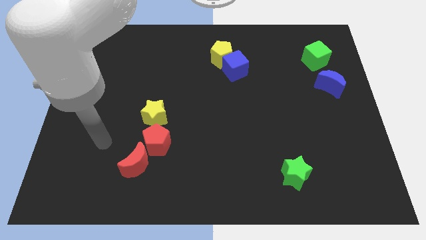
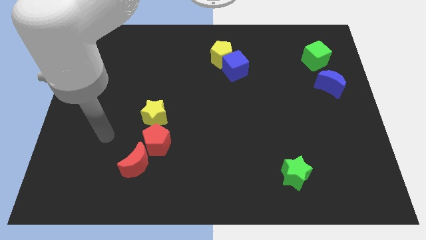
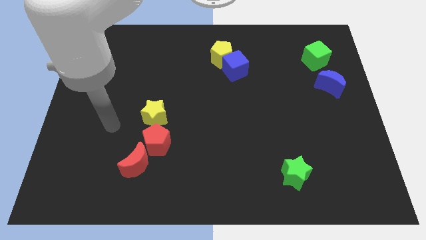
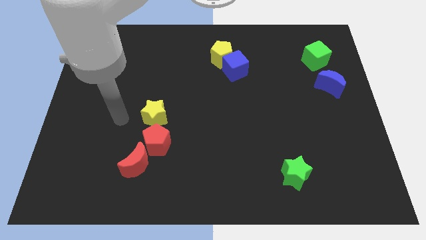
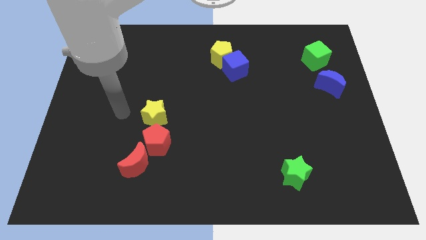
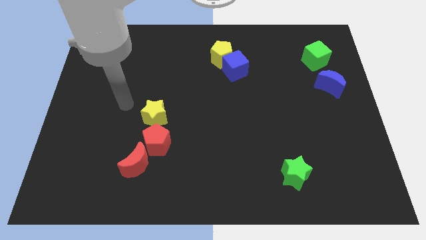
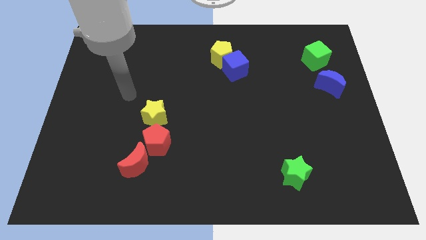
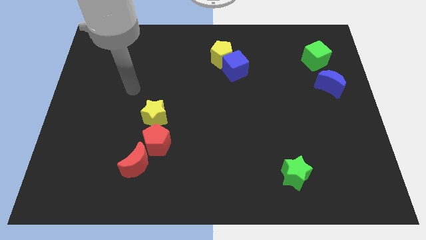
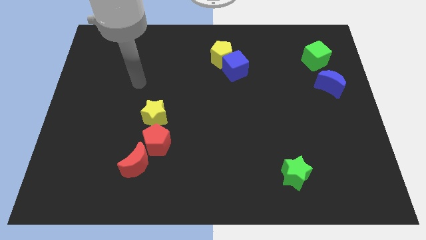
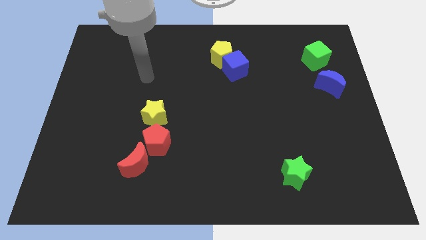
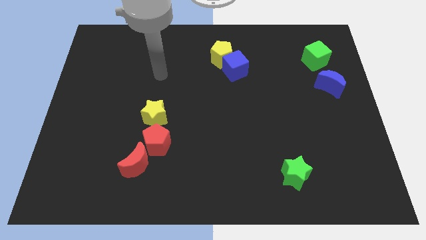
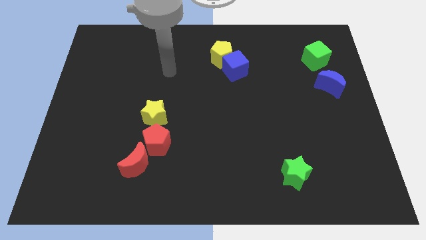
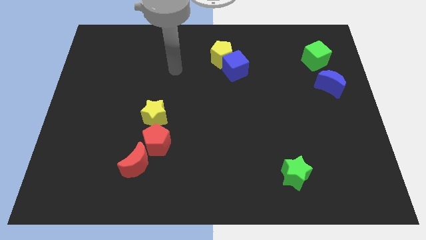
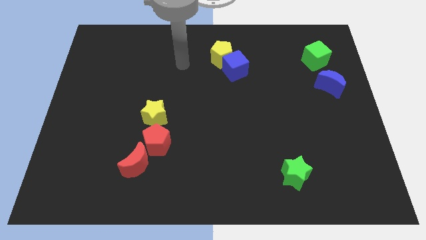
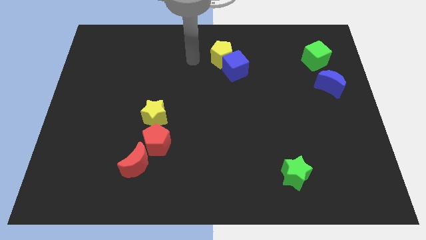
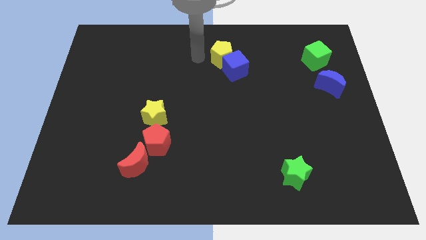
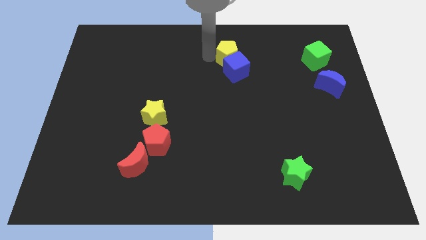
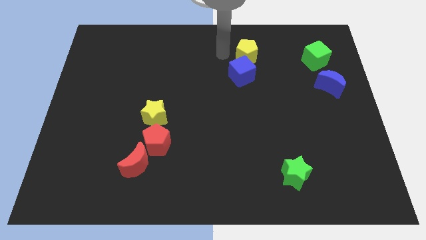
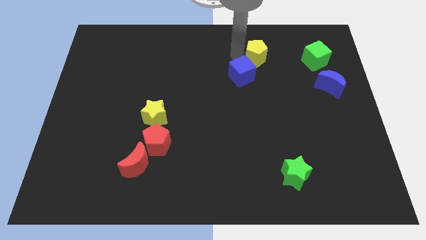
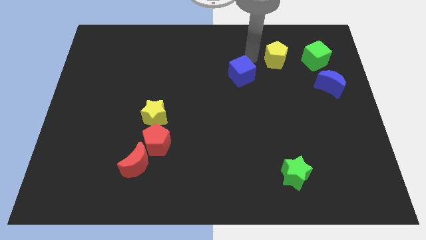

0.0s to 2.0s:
move the blue cube away from the yellow pentagon

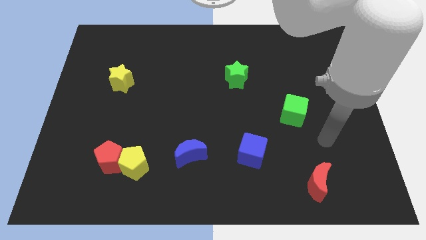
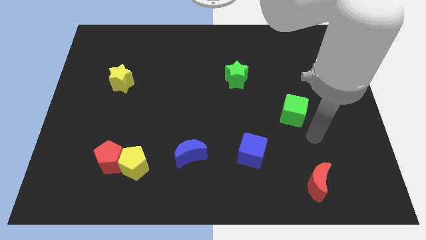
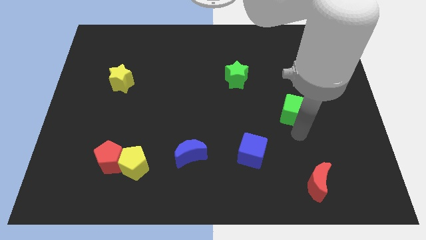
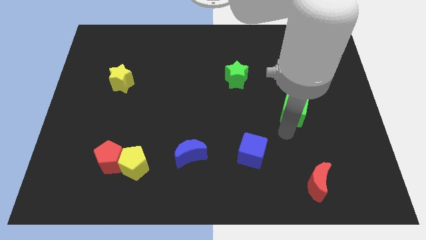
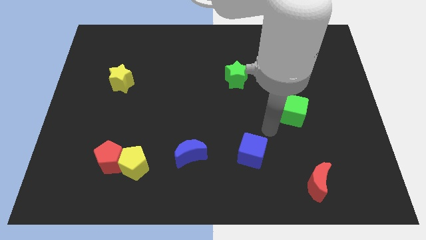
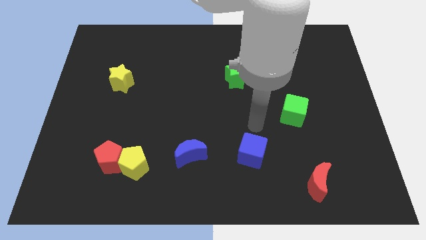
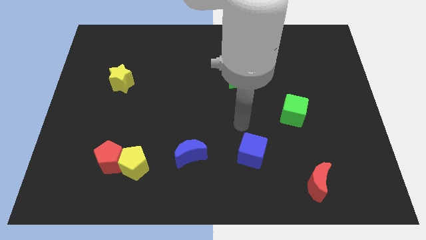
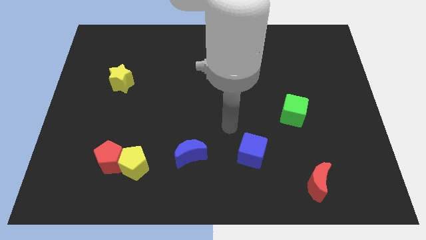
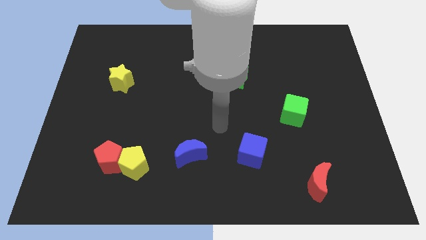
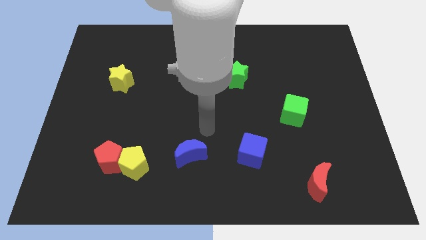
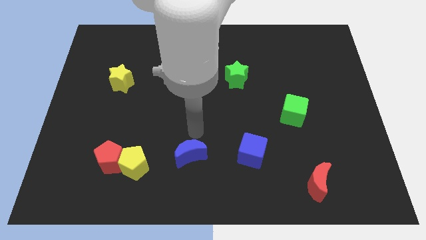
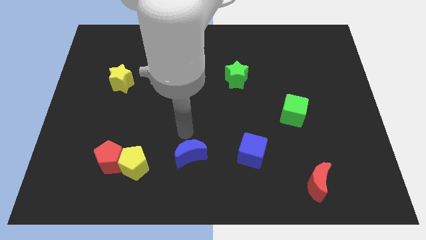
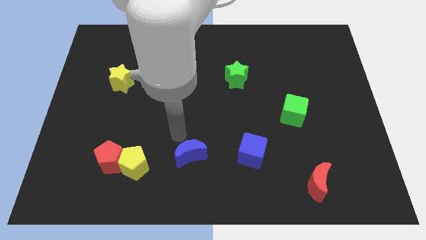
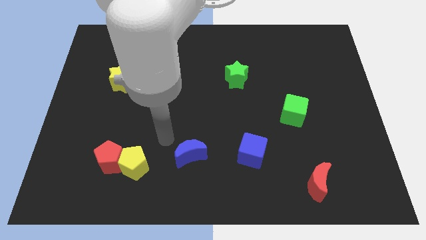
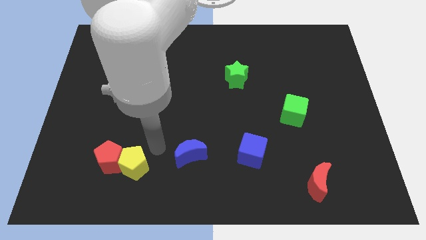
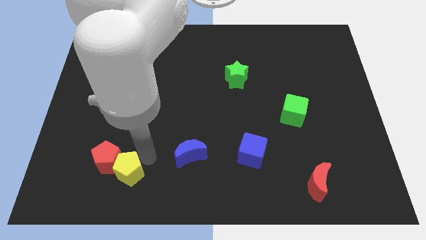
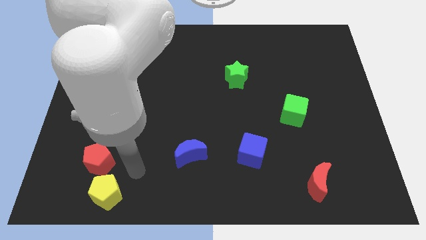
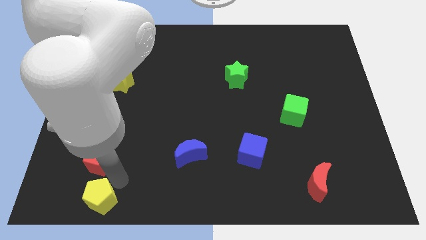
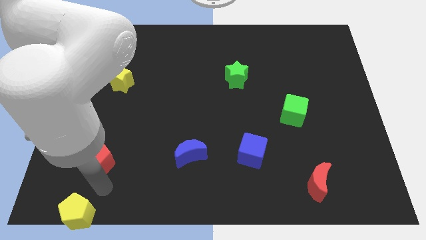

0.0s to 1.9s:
pull the red pentagon apart from the yellow pentagon

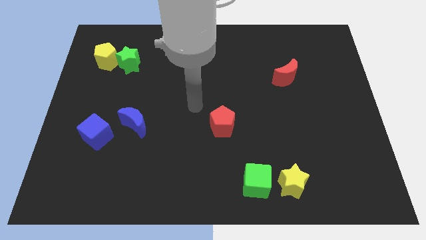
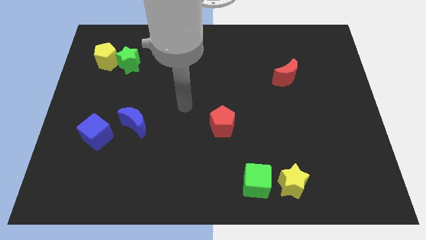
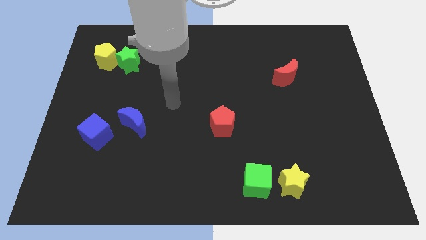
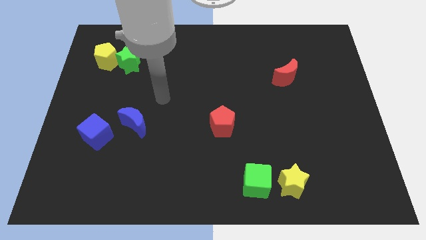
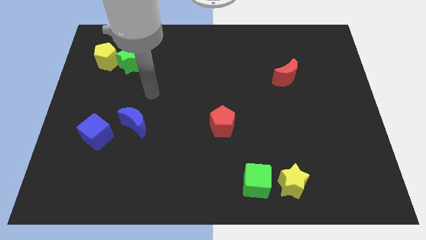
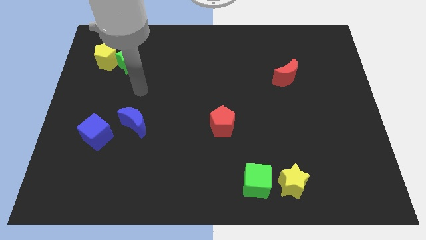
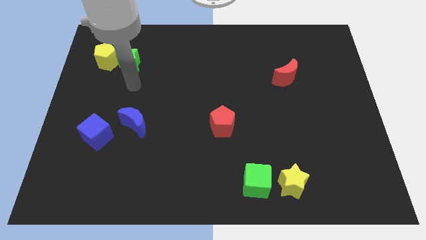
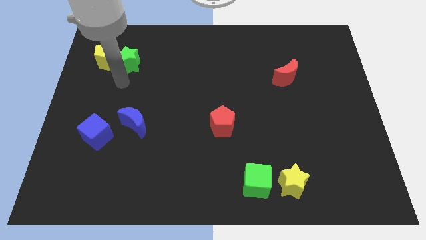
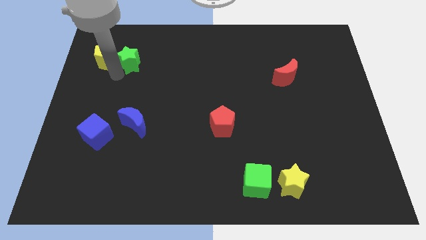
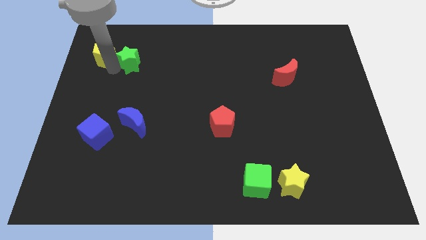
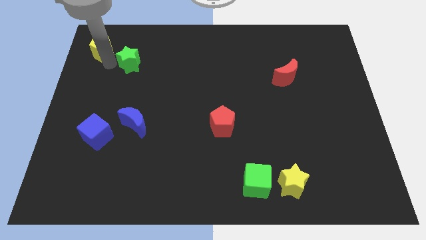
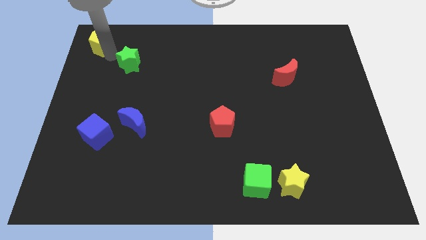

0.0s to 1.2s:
separate the green star from the yellow pentagon

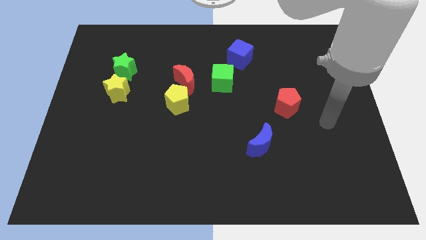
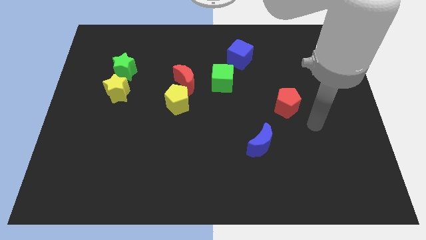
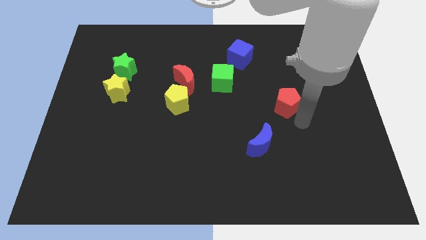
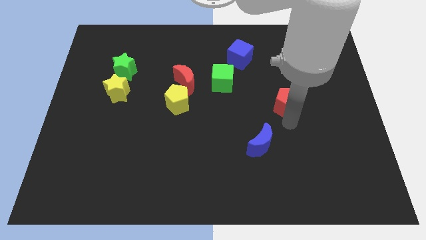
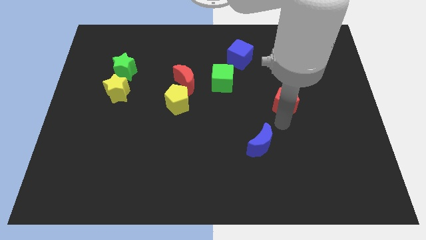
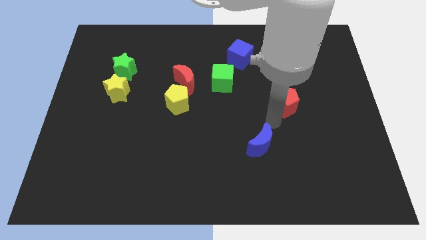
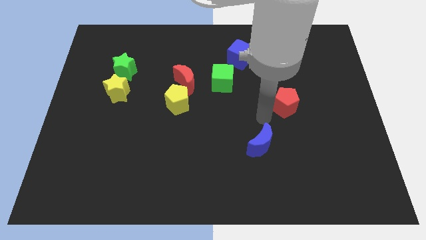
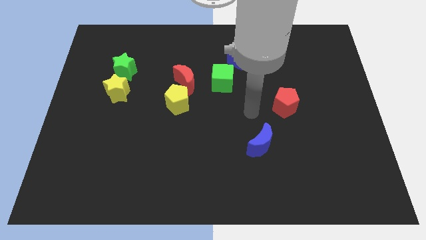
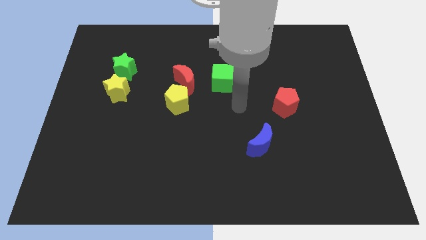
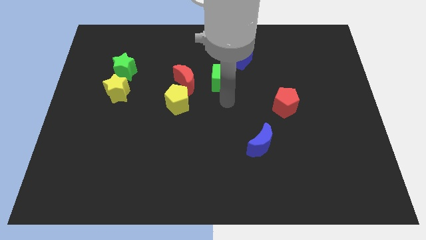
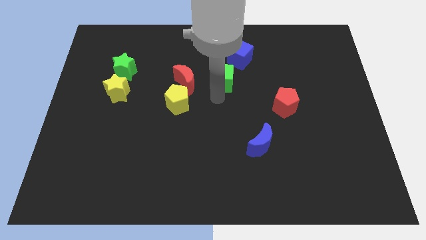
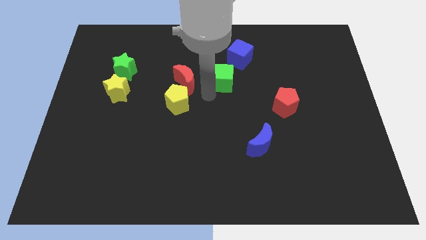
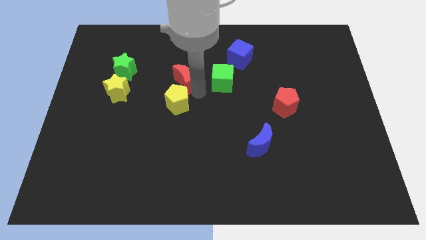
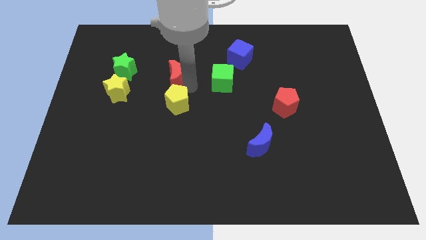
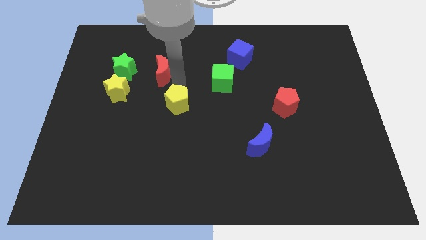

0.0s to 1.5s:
move the yellow pentagon away from the red moon

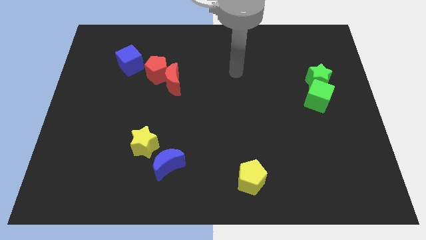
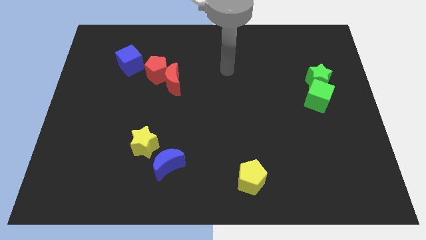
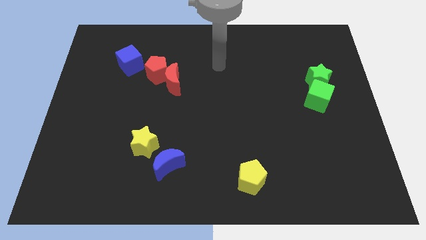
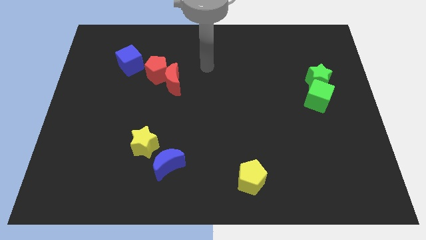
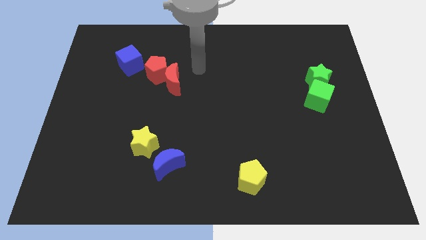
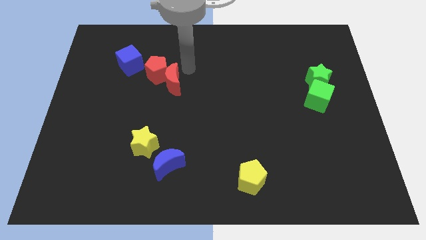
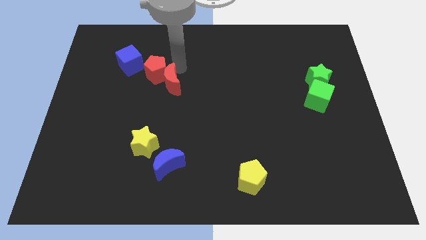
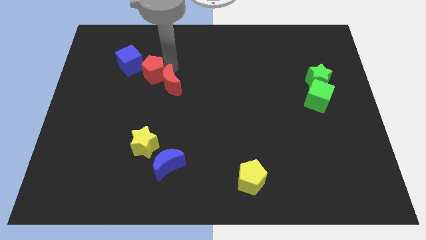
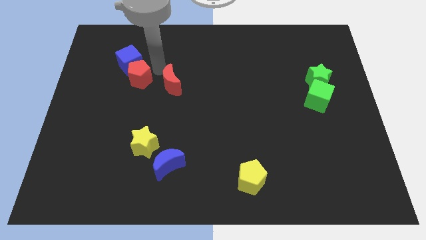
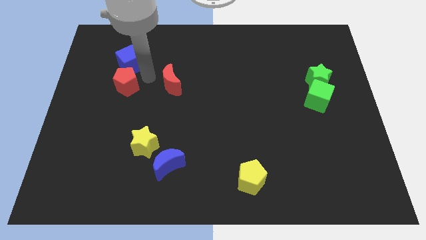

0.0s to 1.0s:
separate the red moon from the red pentagon

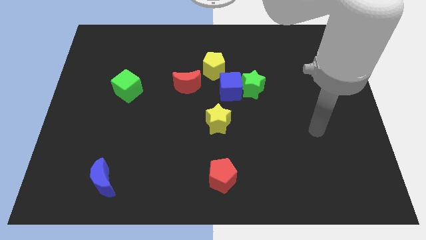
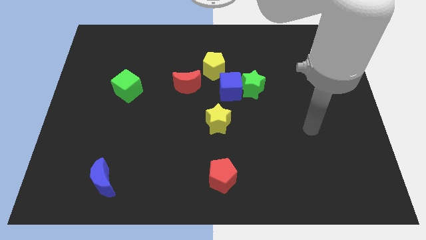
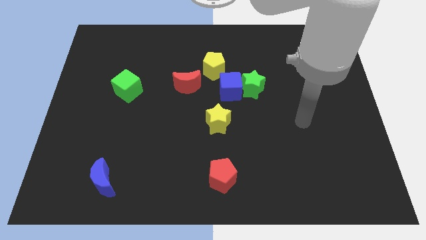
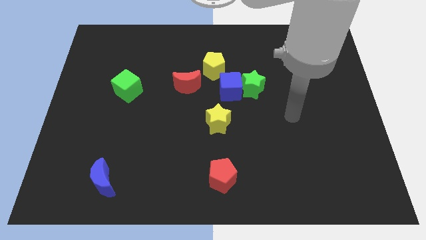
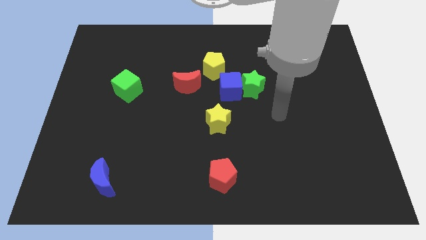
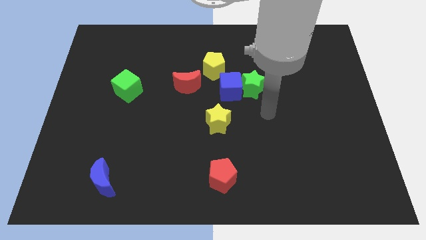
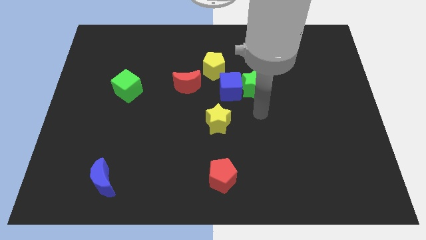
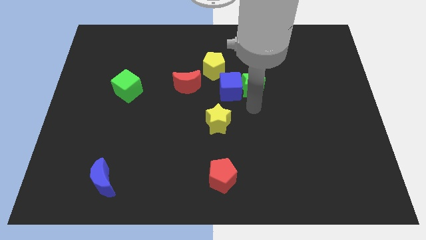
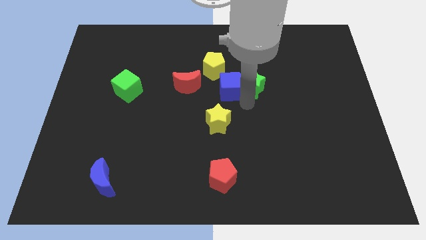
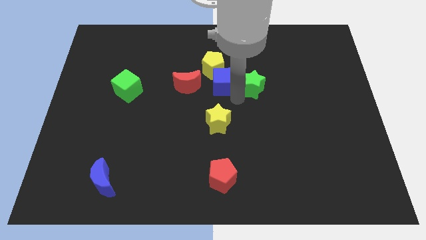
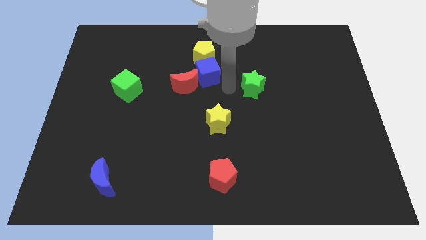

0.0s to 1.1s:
pull the green star apart from the blue cube

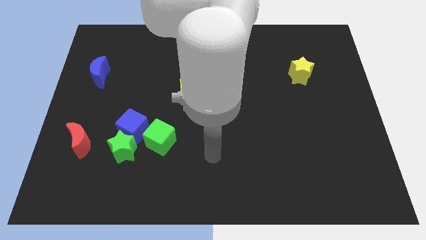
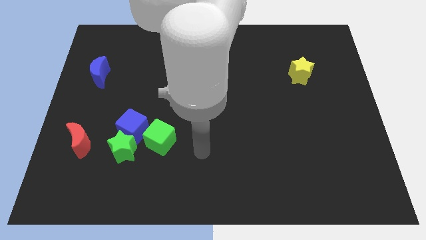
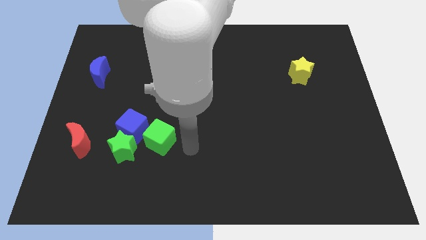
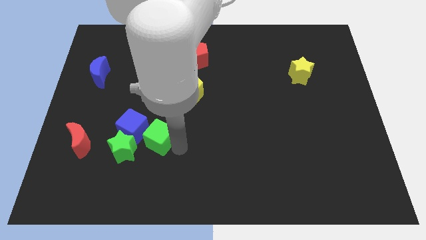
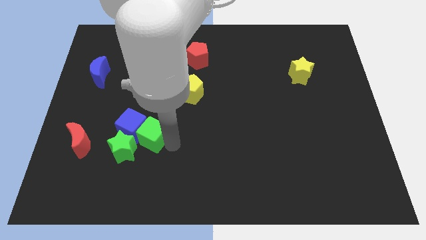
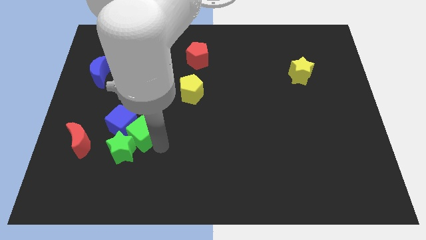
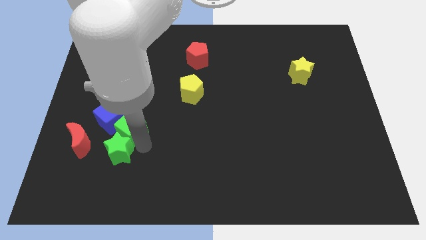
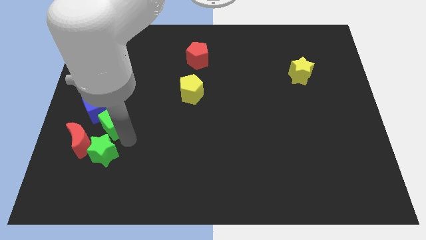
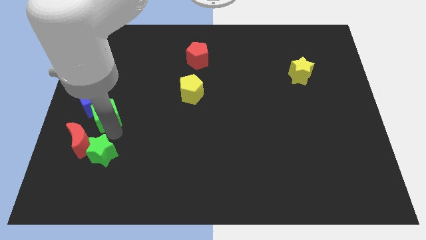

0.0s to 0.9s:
pull the blue cube apart from the green star and green cube
